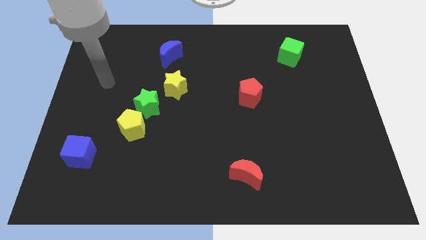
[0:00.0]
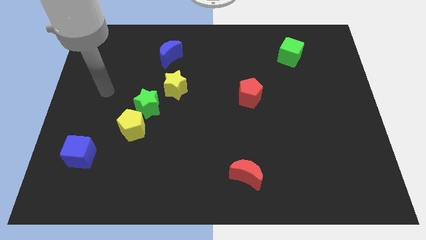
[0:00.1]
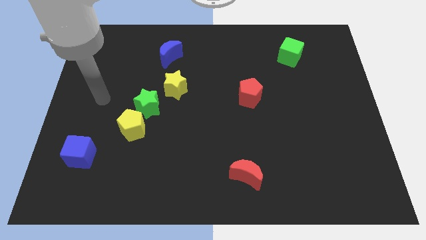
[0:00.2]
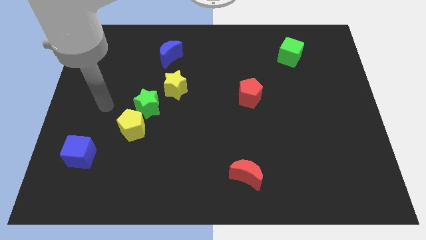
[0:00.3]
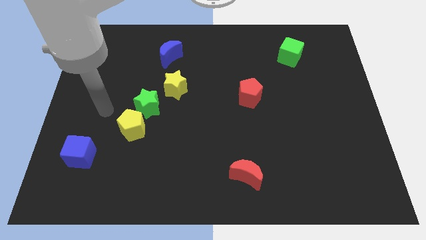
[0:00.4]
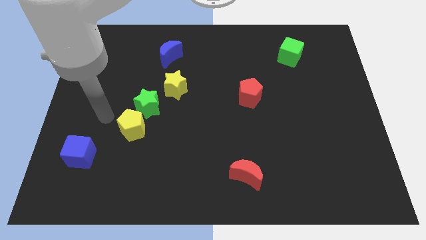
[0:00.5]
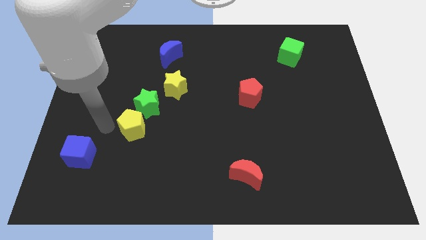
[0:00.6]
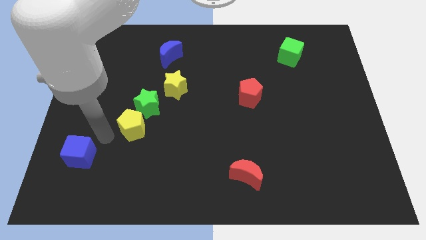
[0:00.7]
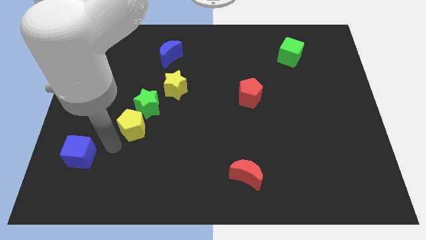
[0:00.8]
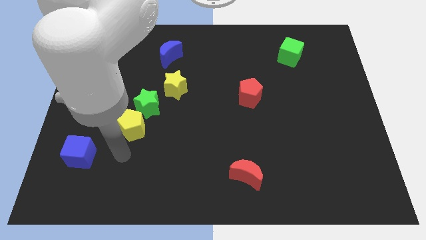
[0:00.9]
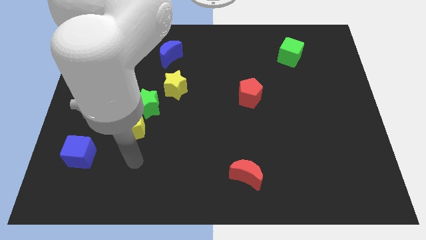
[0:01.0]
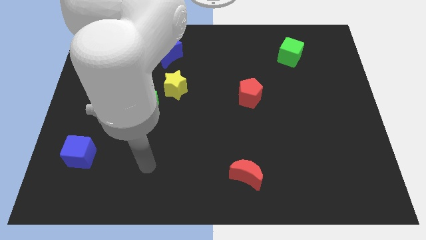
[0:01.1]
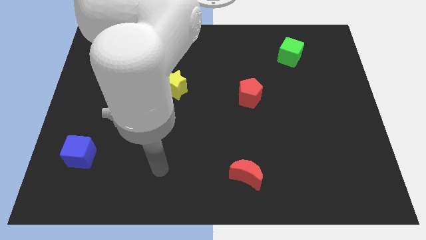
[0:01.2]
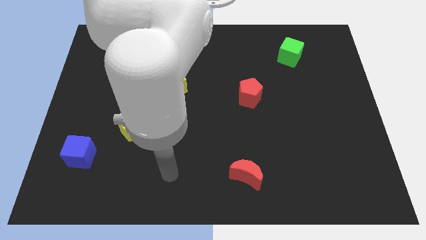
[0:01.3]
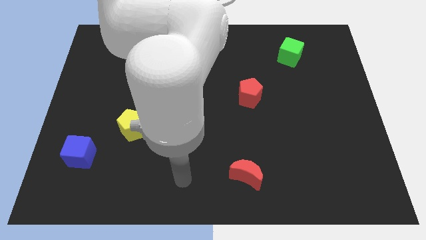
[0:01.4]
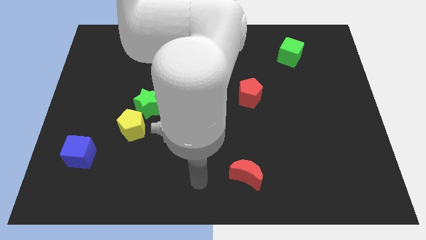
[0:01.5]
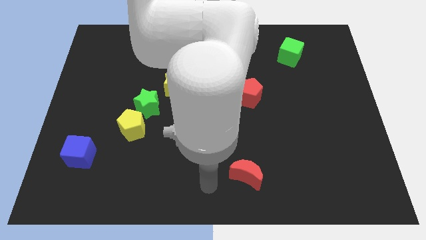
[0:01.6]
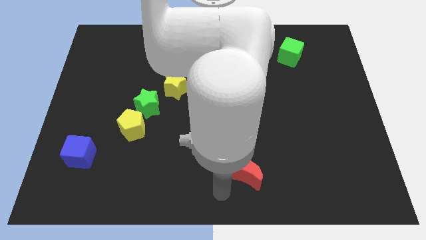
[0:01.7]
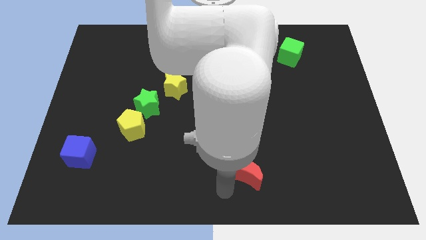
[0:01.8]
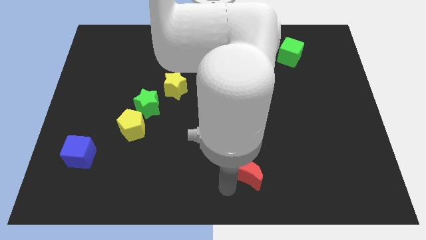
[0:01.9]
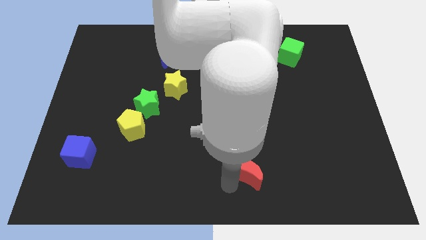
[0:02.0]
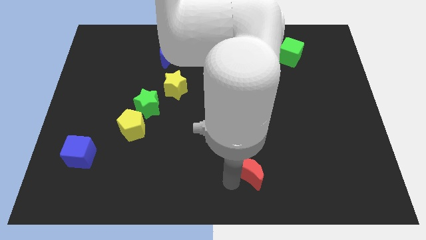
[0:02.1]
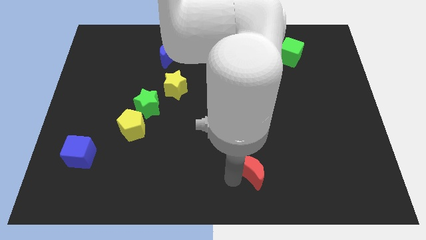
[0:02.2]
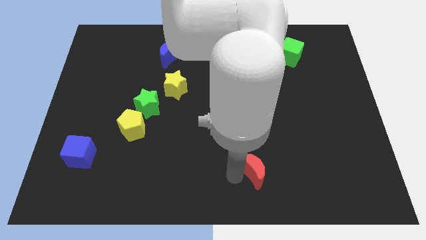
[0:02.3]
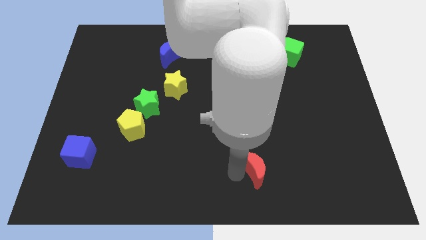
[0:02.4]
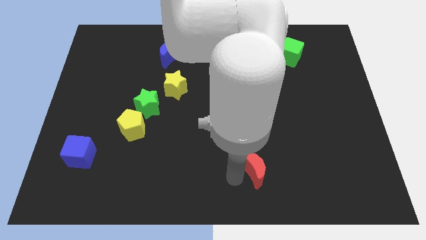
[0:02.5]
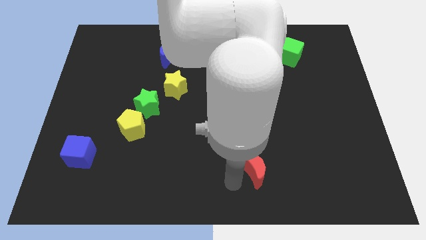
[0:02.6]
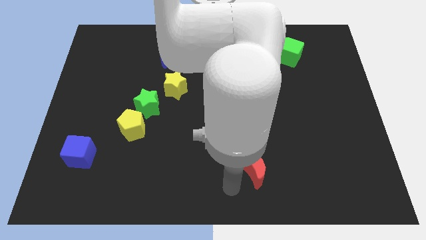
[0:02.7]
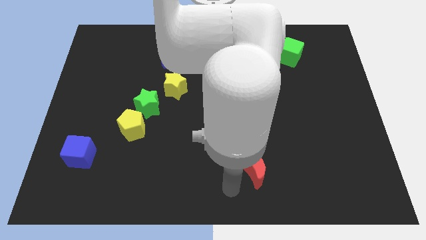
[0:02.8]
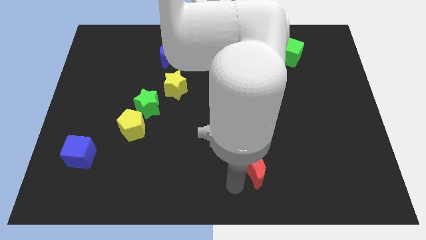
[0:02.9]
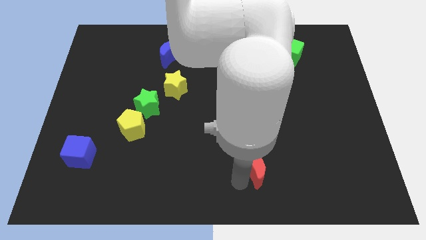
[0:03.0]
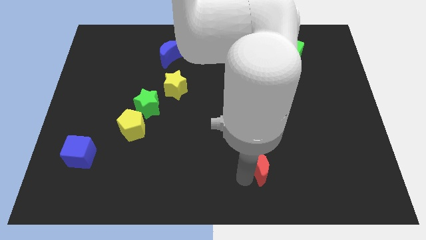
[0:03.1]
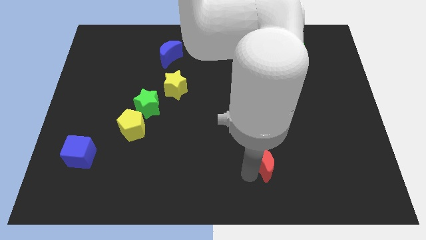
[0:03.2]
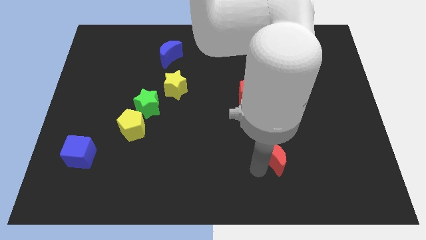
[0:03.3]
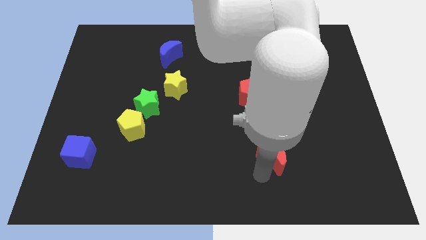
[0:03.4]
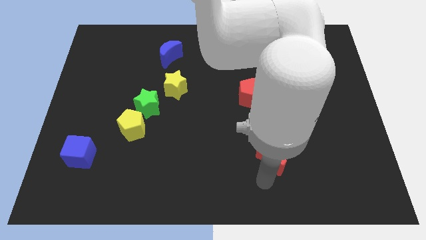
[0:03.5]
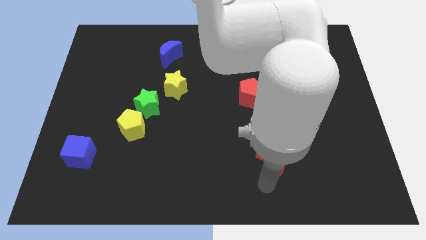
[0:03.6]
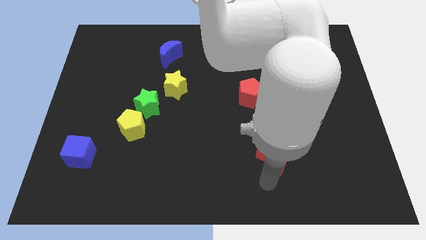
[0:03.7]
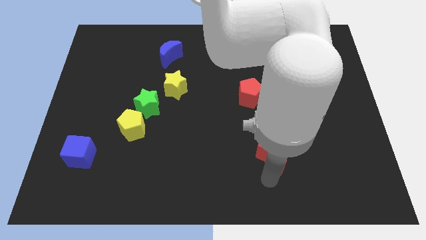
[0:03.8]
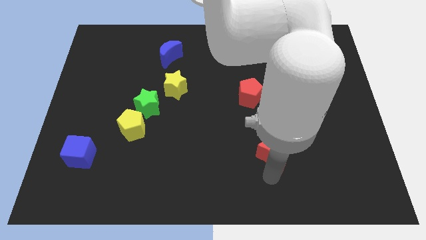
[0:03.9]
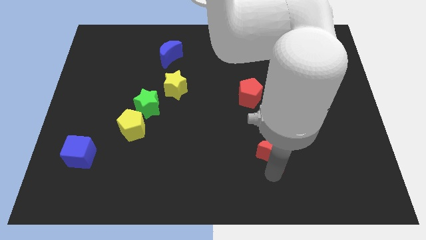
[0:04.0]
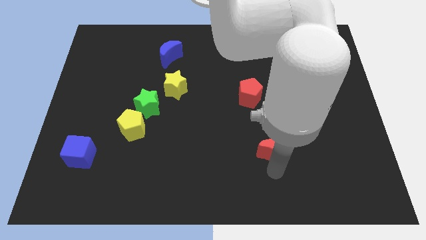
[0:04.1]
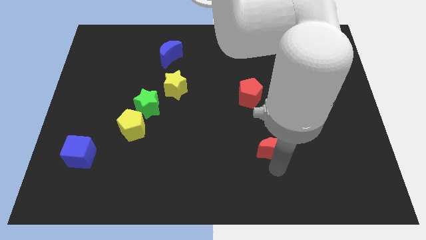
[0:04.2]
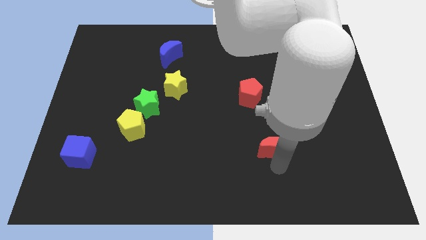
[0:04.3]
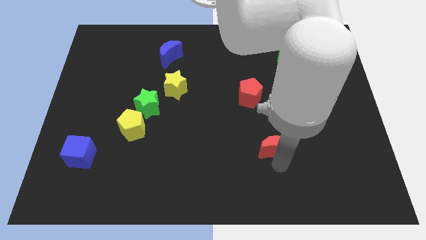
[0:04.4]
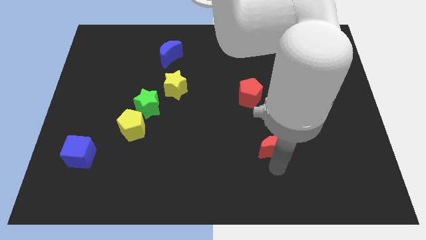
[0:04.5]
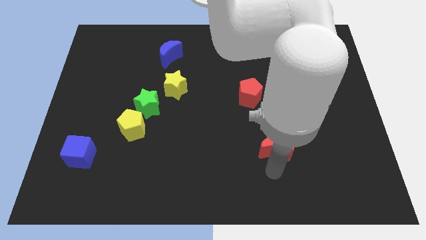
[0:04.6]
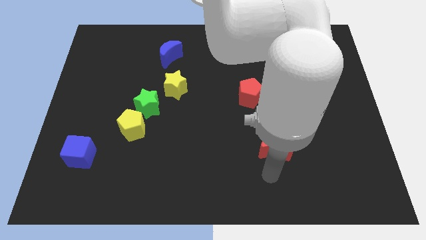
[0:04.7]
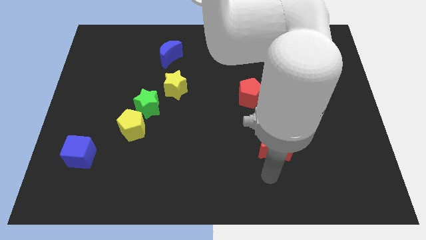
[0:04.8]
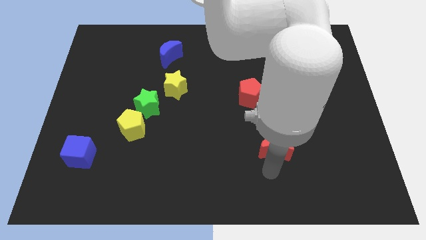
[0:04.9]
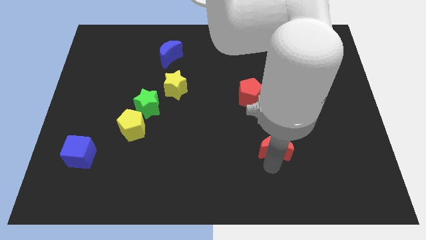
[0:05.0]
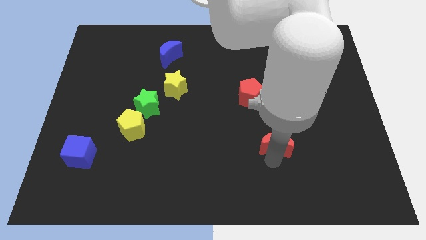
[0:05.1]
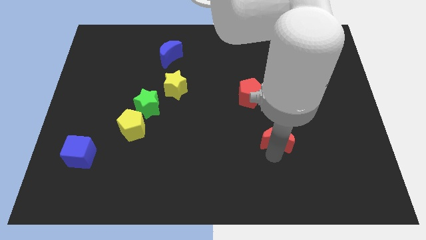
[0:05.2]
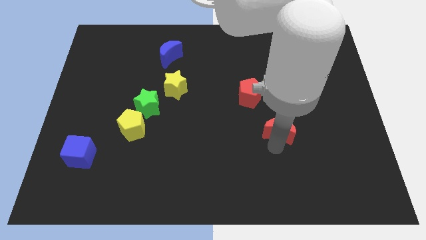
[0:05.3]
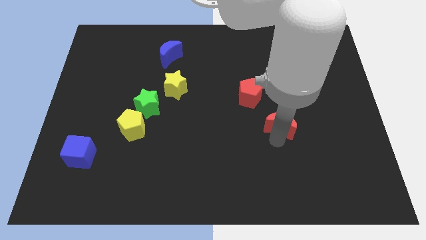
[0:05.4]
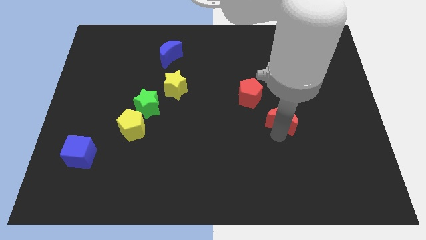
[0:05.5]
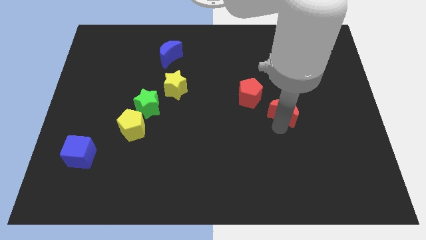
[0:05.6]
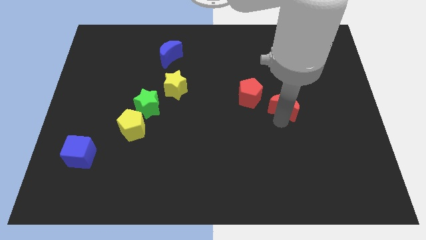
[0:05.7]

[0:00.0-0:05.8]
push the red moon right of the red pentagon

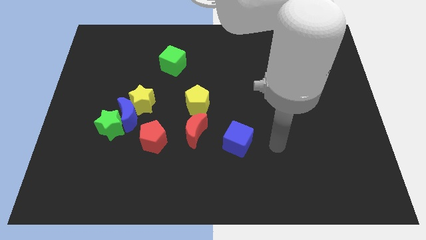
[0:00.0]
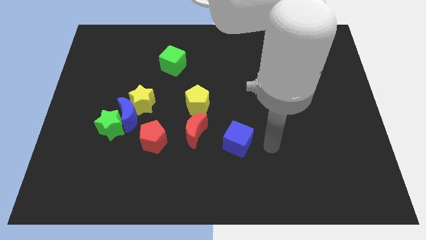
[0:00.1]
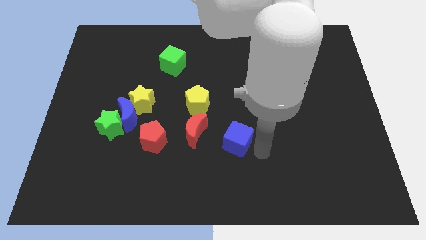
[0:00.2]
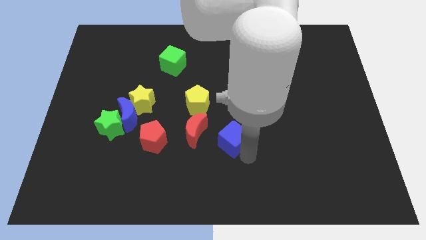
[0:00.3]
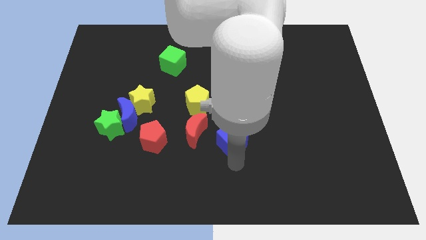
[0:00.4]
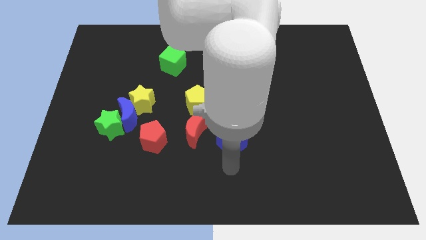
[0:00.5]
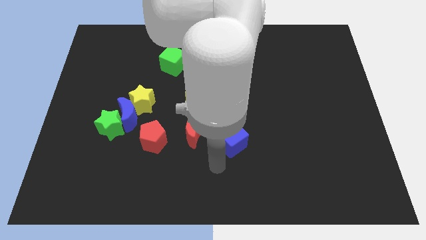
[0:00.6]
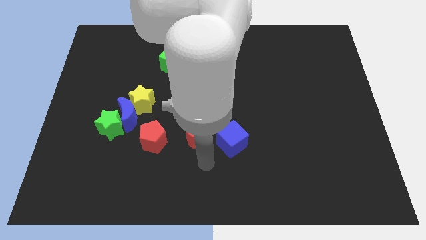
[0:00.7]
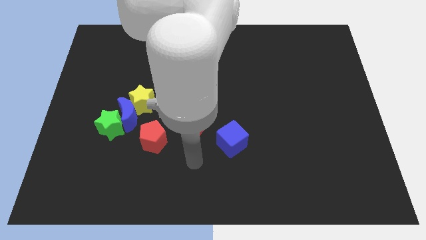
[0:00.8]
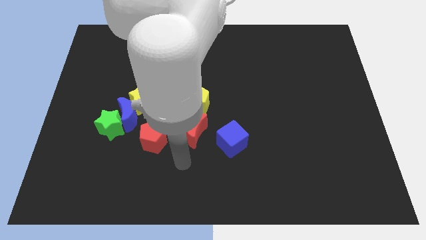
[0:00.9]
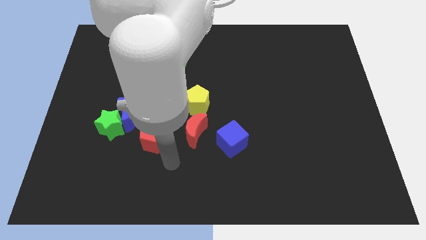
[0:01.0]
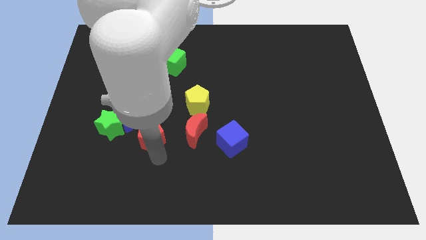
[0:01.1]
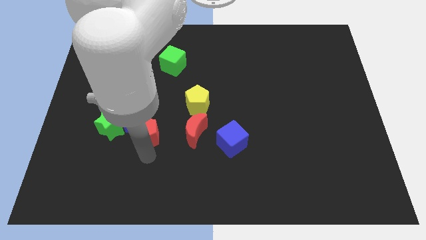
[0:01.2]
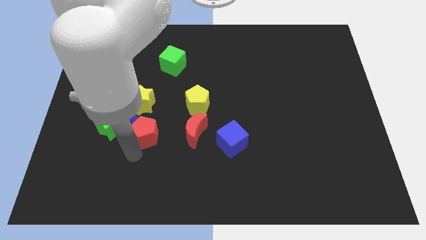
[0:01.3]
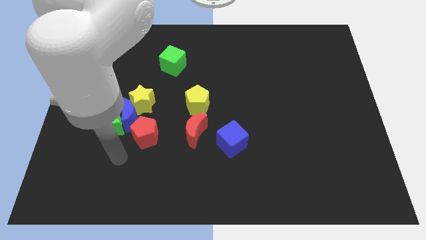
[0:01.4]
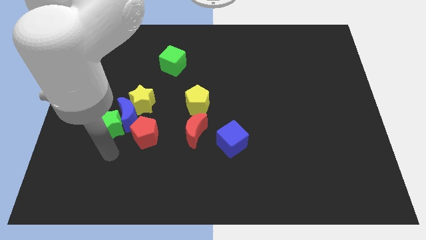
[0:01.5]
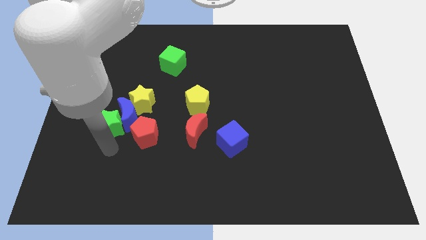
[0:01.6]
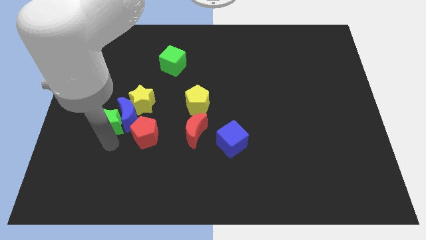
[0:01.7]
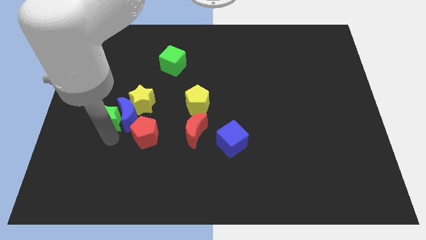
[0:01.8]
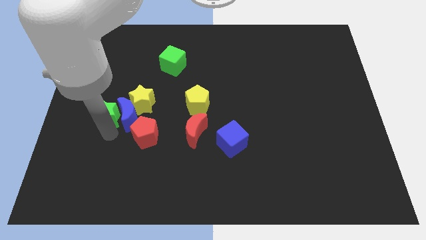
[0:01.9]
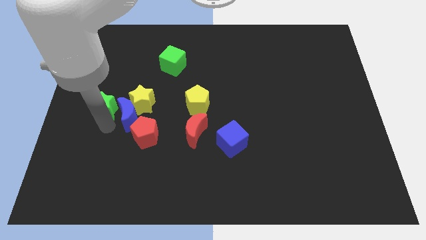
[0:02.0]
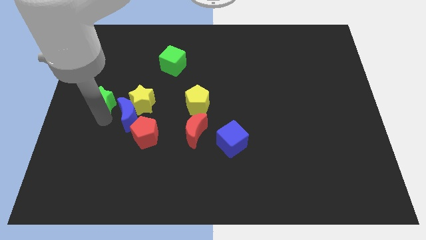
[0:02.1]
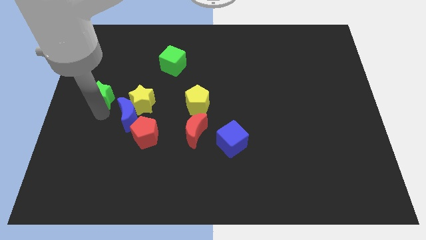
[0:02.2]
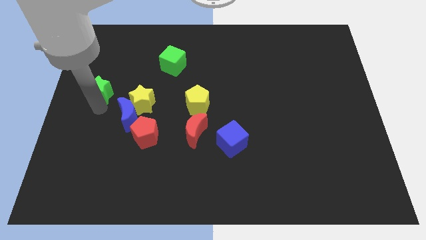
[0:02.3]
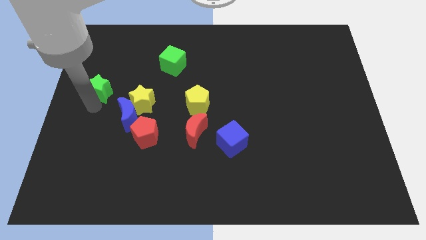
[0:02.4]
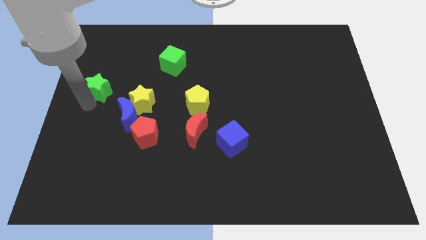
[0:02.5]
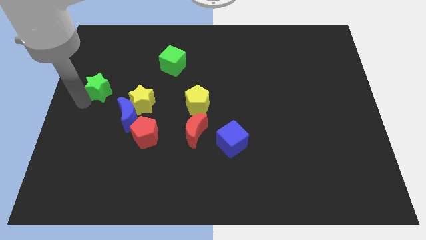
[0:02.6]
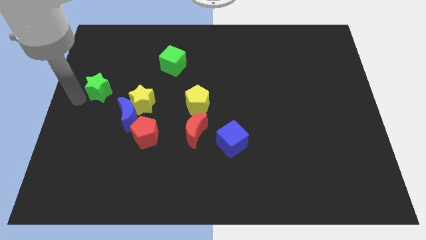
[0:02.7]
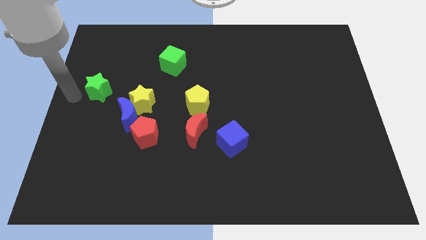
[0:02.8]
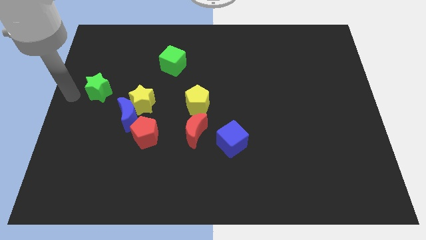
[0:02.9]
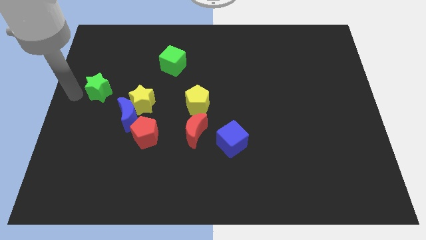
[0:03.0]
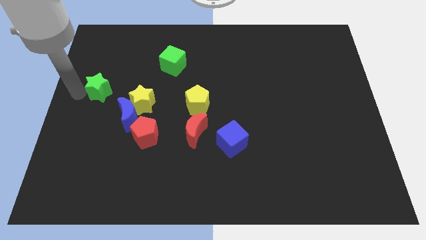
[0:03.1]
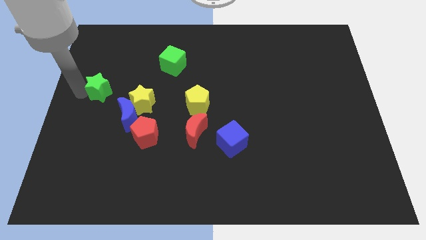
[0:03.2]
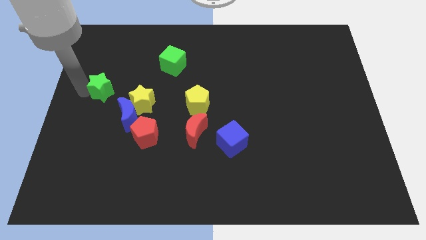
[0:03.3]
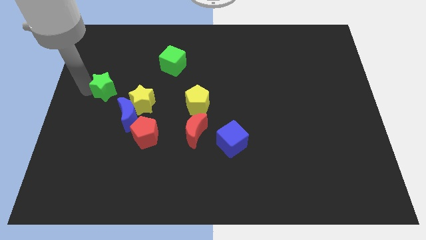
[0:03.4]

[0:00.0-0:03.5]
move the green star to the top left of the yellow star
